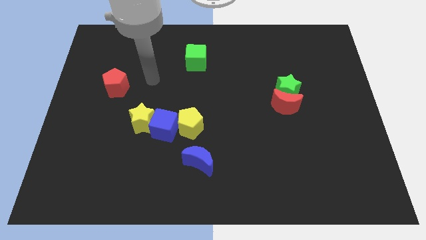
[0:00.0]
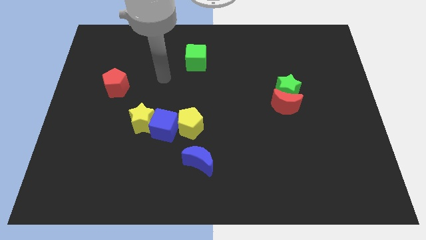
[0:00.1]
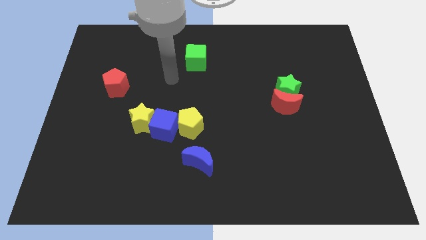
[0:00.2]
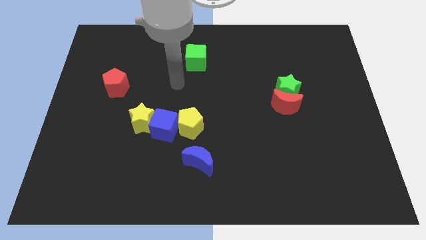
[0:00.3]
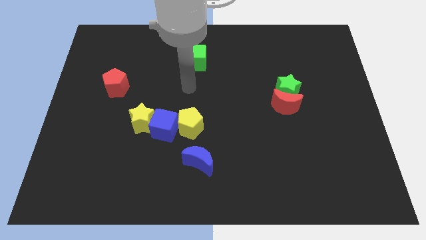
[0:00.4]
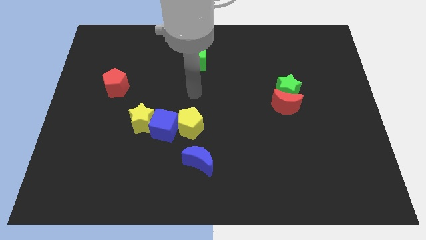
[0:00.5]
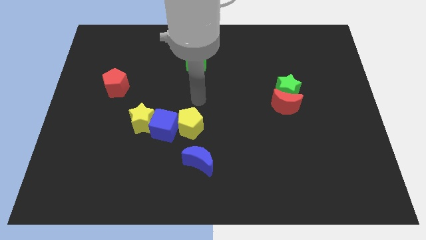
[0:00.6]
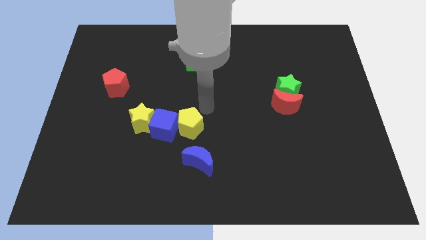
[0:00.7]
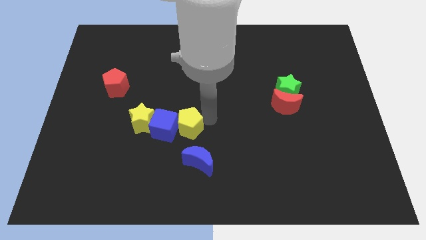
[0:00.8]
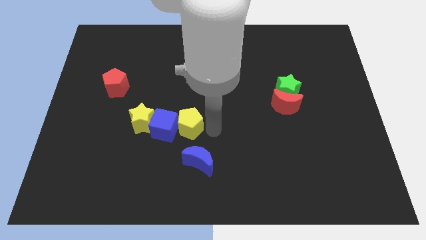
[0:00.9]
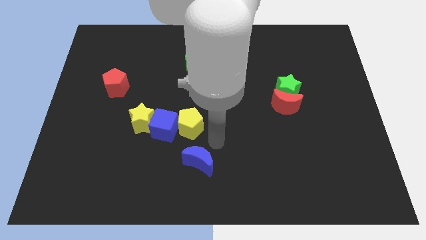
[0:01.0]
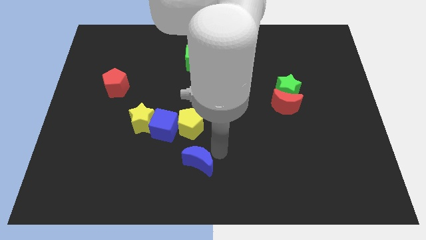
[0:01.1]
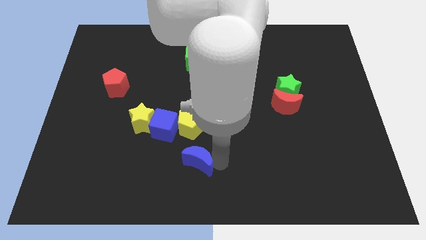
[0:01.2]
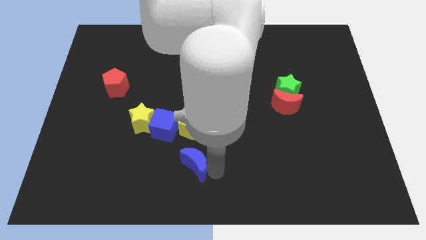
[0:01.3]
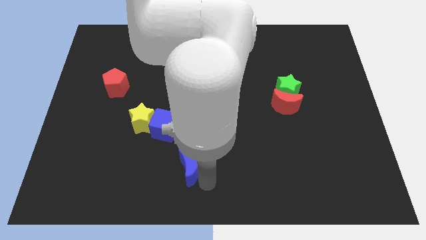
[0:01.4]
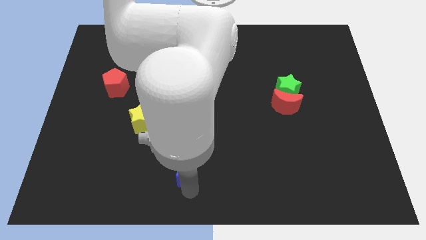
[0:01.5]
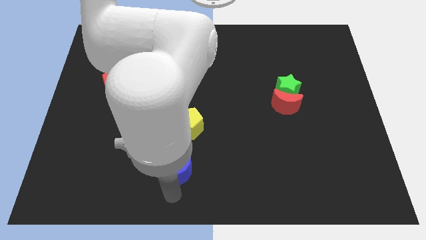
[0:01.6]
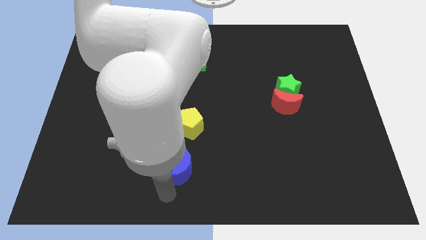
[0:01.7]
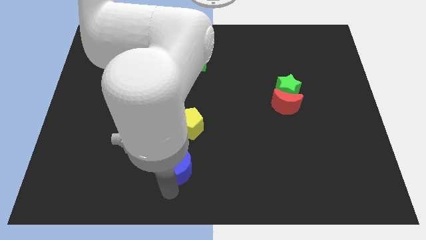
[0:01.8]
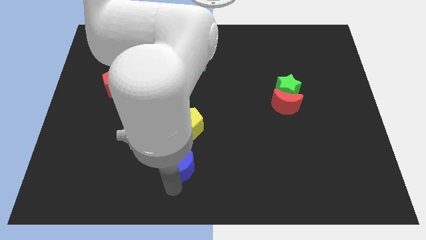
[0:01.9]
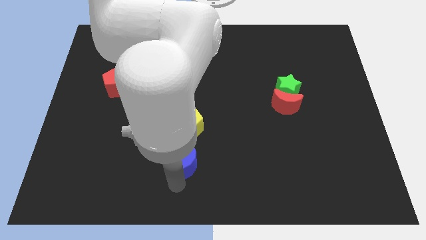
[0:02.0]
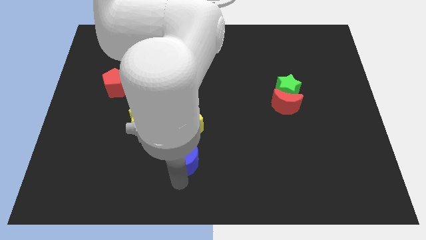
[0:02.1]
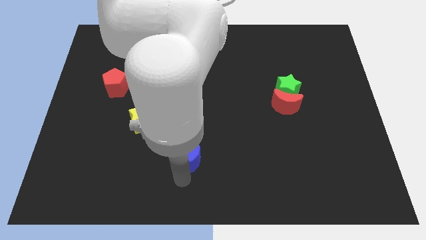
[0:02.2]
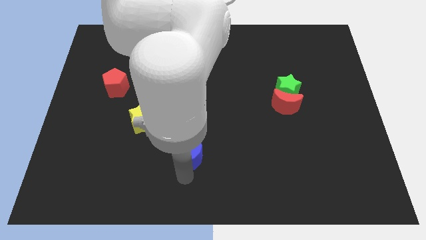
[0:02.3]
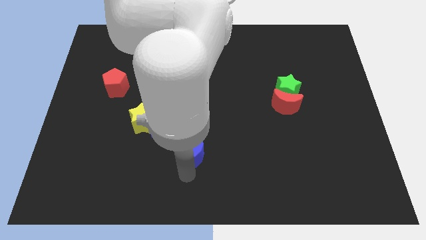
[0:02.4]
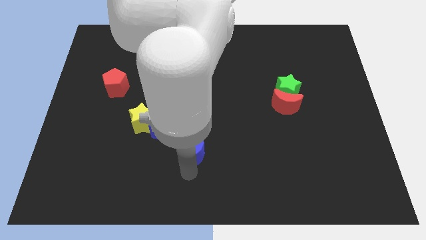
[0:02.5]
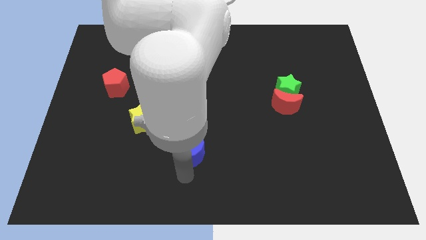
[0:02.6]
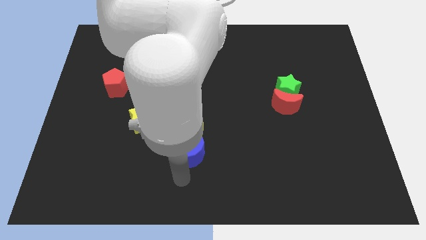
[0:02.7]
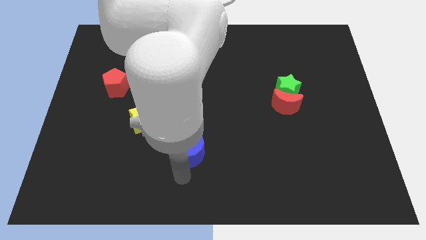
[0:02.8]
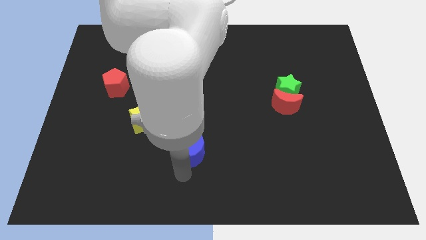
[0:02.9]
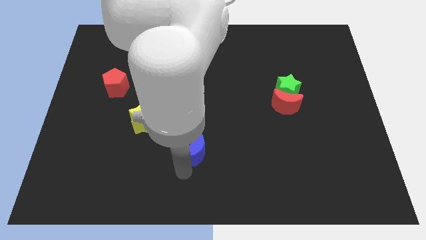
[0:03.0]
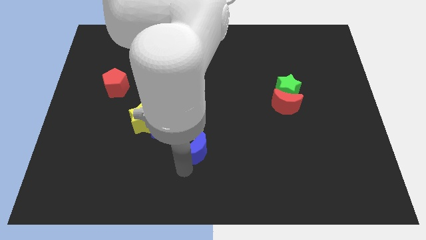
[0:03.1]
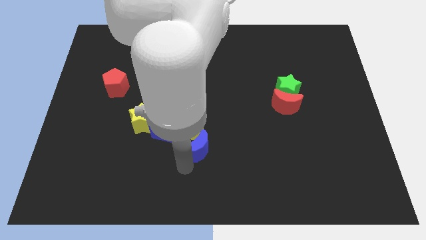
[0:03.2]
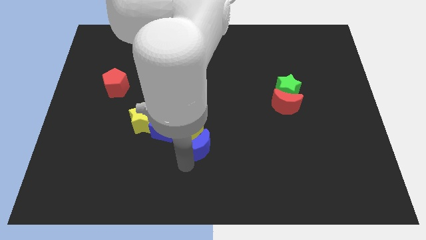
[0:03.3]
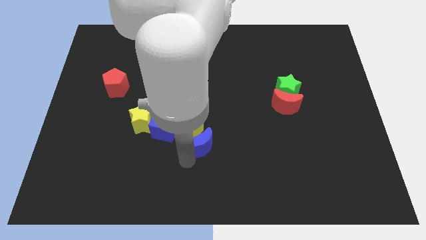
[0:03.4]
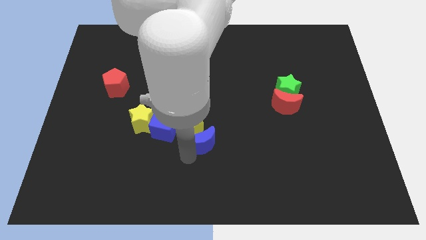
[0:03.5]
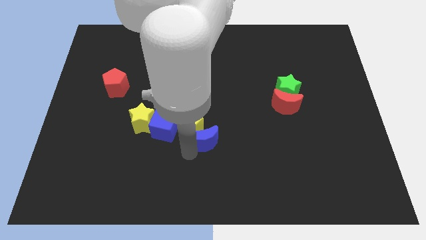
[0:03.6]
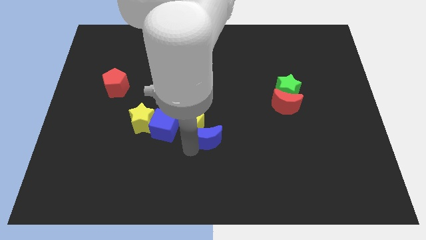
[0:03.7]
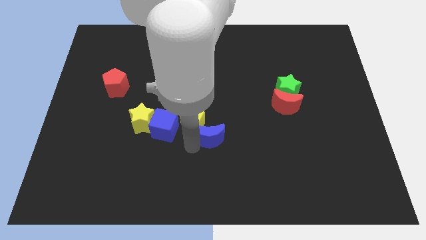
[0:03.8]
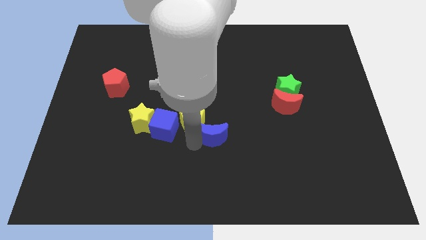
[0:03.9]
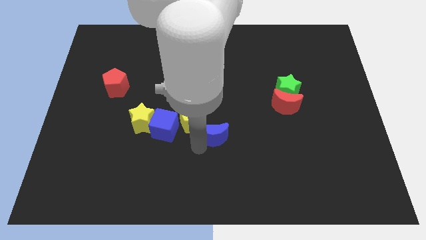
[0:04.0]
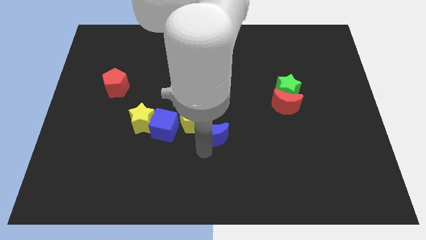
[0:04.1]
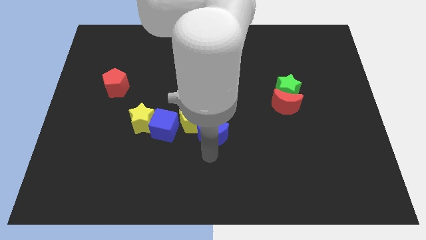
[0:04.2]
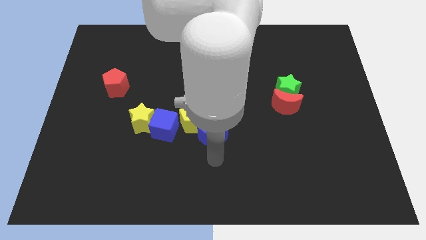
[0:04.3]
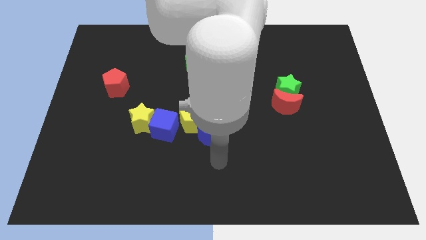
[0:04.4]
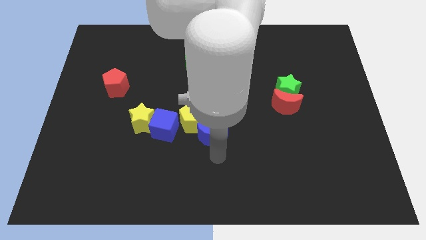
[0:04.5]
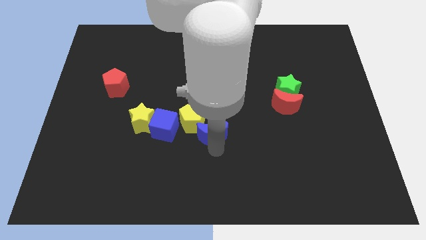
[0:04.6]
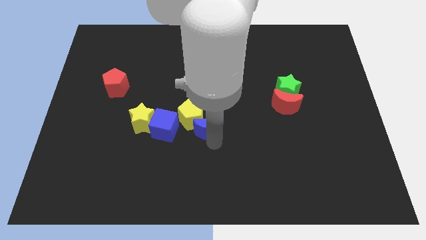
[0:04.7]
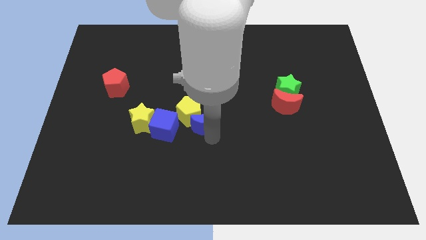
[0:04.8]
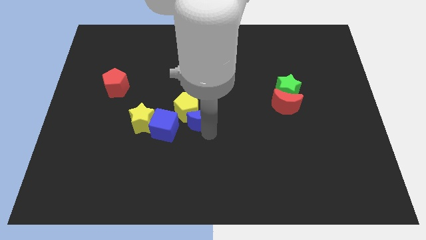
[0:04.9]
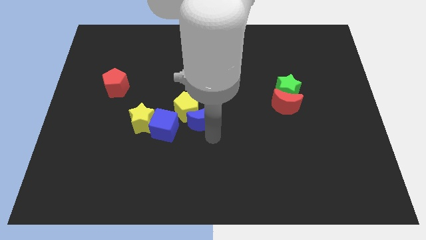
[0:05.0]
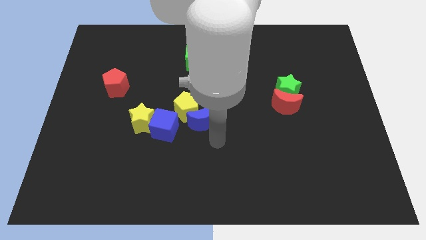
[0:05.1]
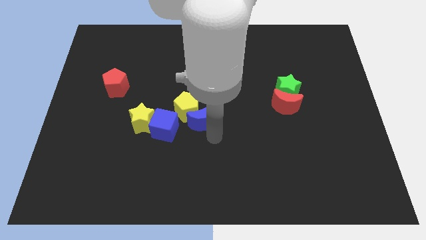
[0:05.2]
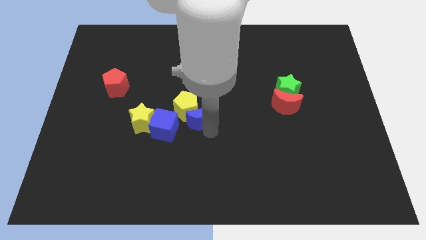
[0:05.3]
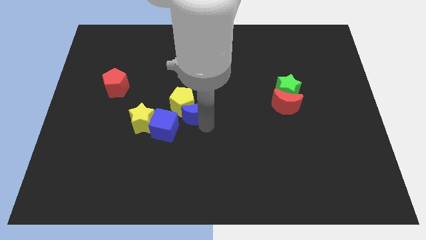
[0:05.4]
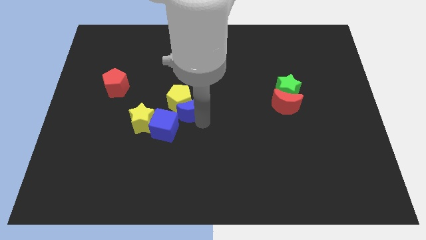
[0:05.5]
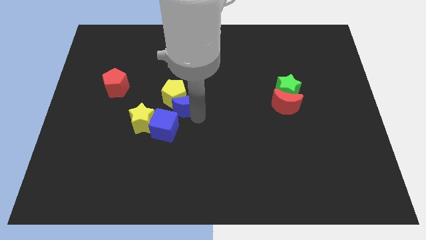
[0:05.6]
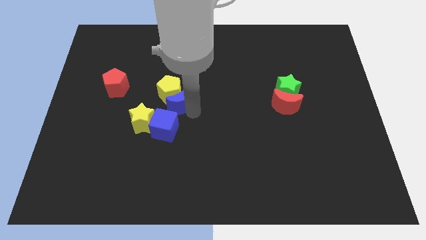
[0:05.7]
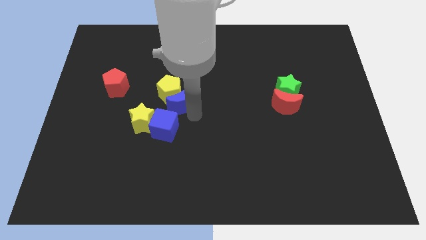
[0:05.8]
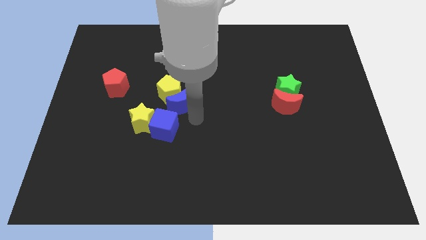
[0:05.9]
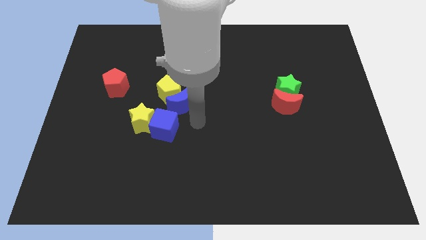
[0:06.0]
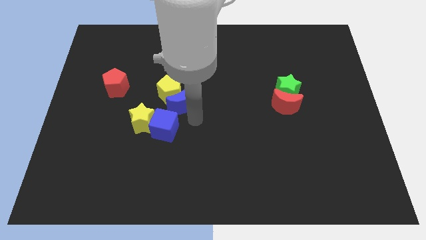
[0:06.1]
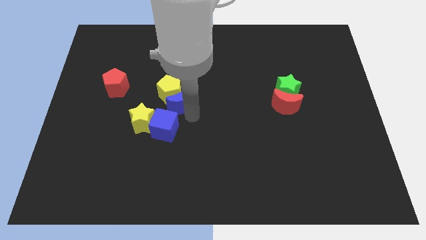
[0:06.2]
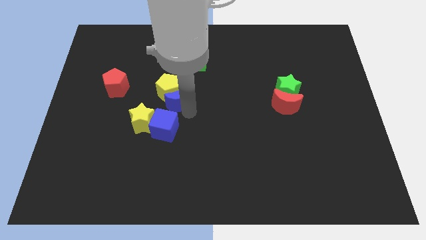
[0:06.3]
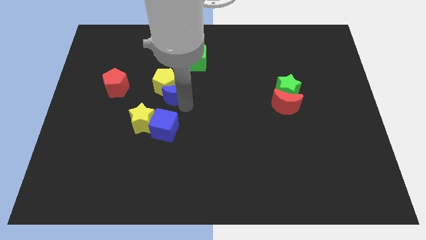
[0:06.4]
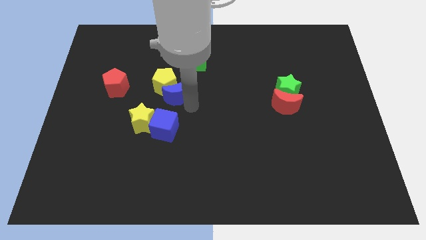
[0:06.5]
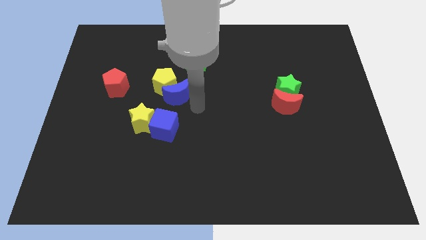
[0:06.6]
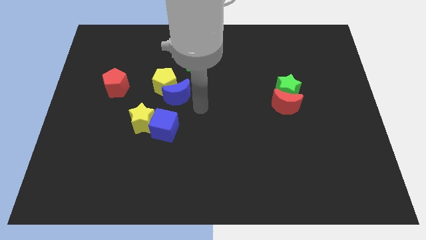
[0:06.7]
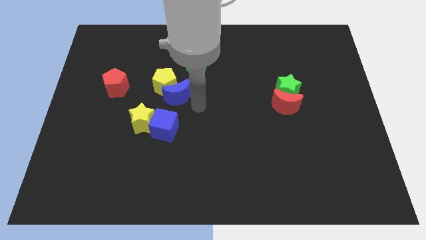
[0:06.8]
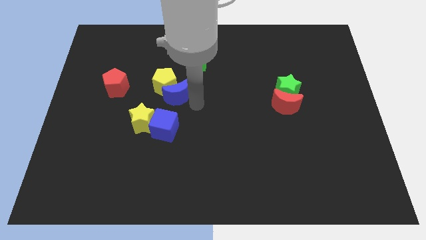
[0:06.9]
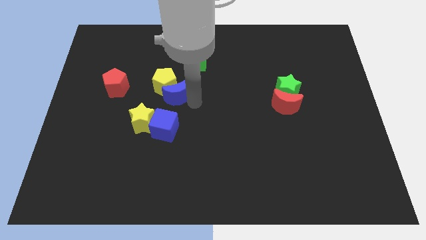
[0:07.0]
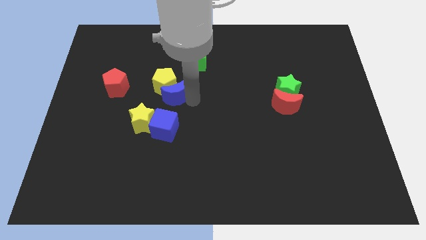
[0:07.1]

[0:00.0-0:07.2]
slide the blue moon just right of the red pentagon

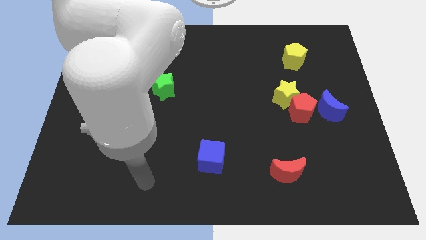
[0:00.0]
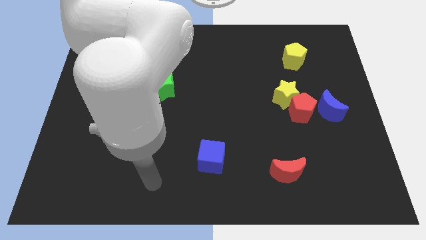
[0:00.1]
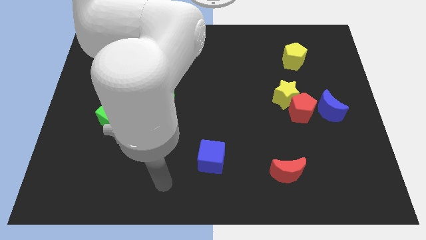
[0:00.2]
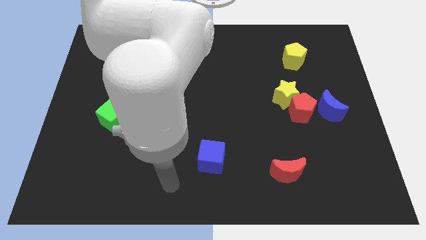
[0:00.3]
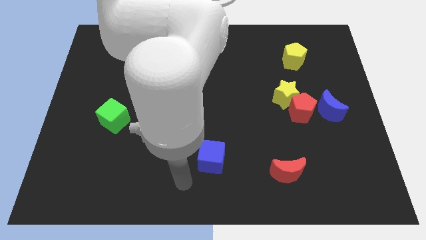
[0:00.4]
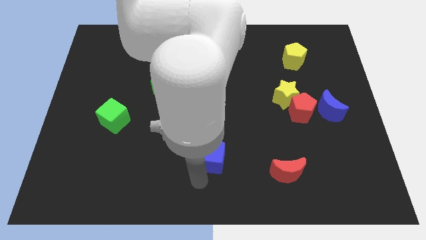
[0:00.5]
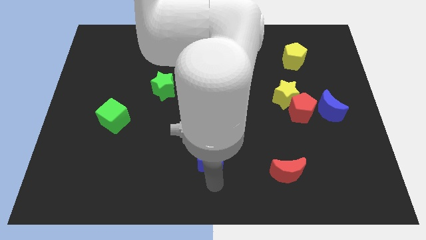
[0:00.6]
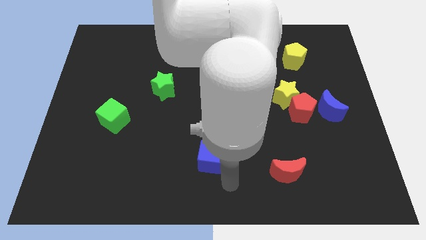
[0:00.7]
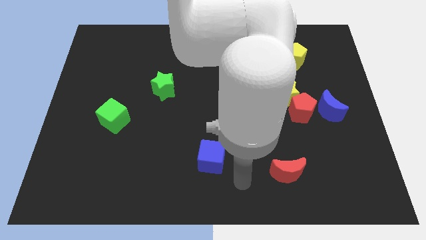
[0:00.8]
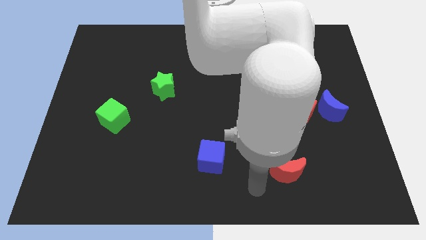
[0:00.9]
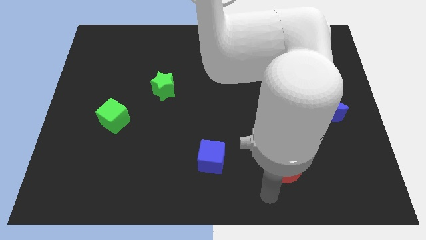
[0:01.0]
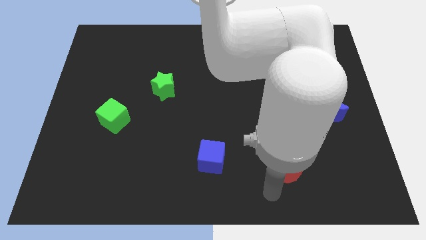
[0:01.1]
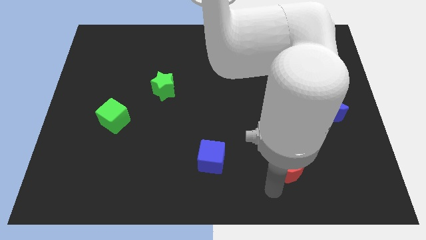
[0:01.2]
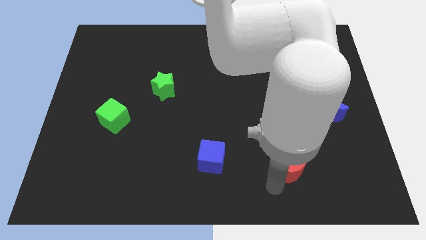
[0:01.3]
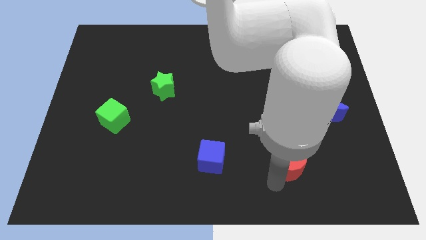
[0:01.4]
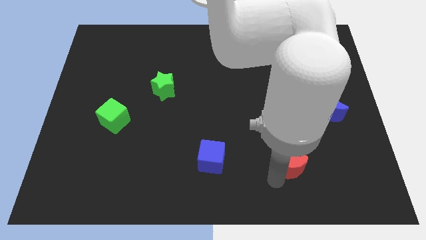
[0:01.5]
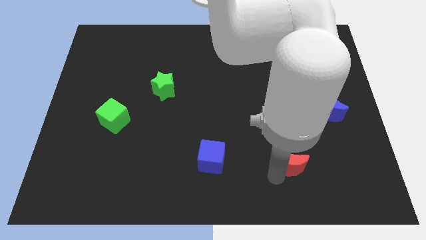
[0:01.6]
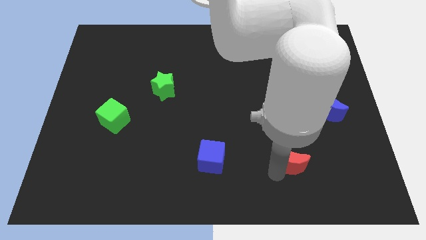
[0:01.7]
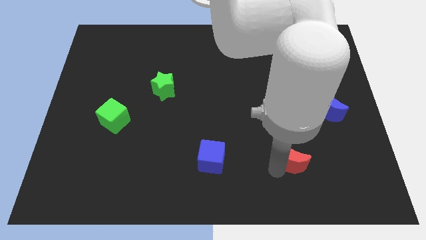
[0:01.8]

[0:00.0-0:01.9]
push the red moon to the bottom of the red pentagon
